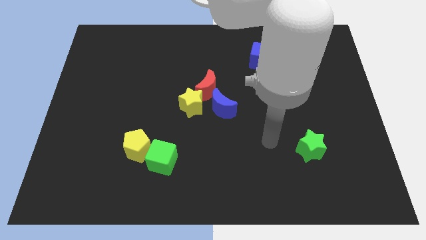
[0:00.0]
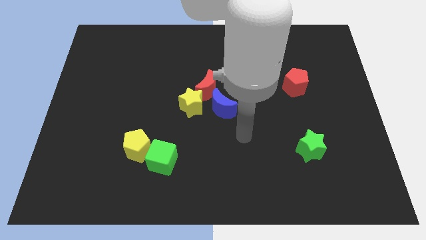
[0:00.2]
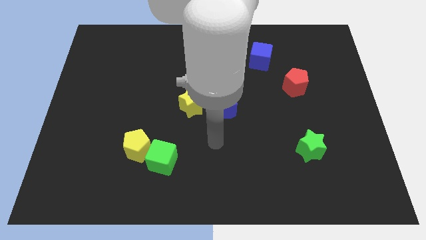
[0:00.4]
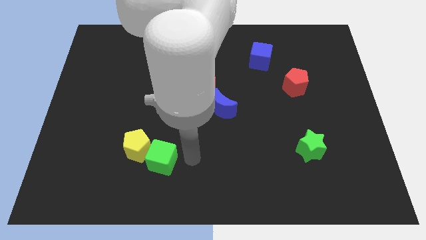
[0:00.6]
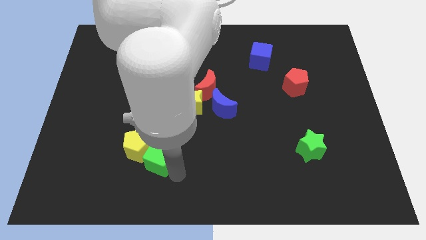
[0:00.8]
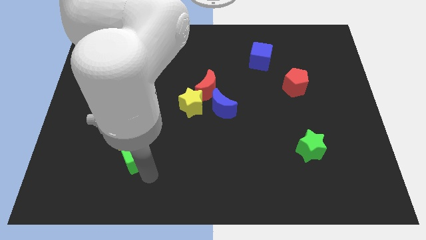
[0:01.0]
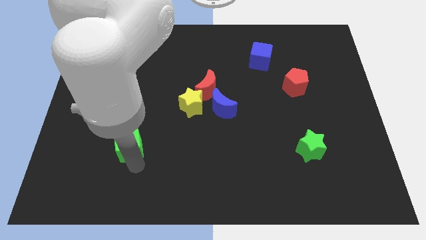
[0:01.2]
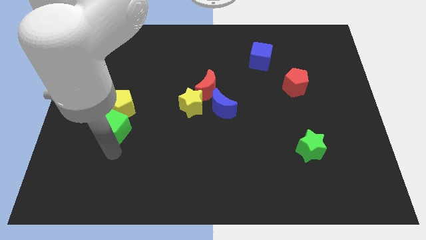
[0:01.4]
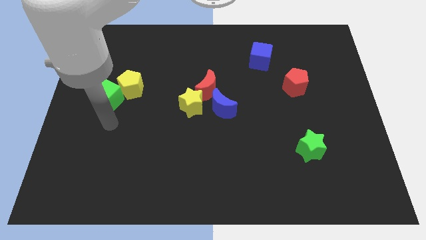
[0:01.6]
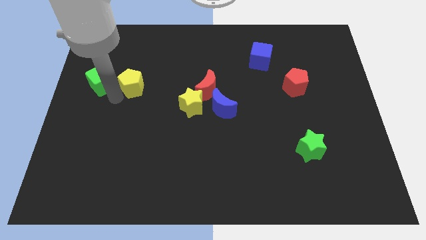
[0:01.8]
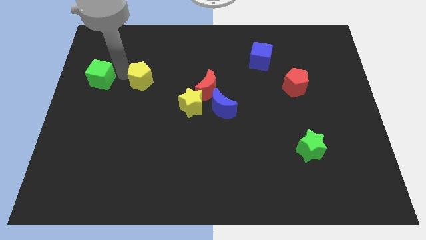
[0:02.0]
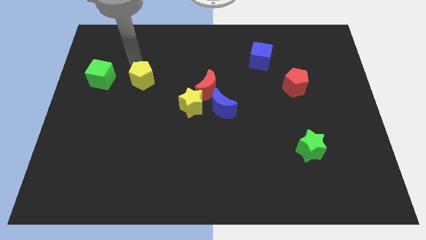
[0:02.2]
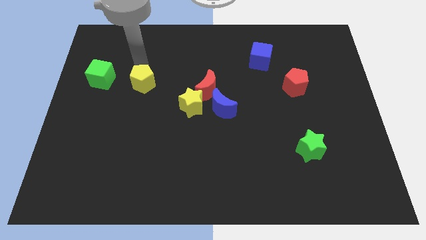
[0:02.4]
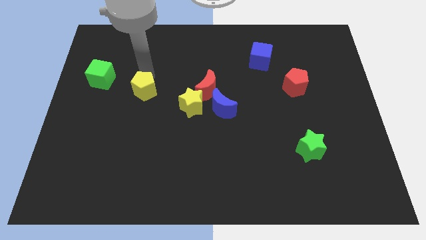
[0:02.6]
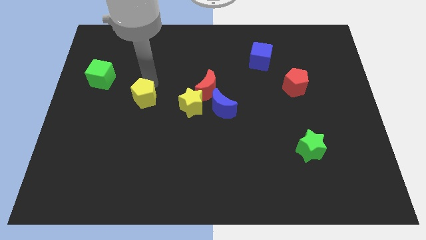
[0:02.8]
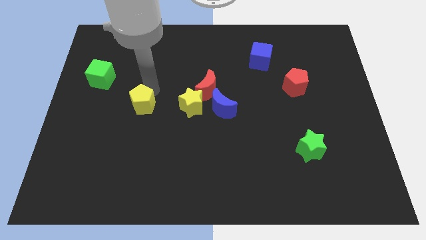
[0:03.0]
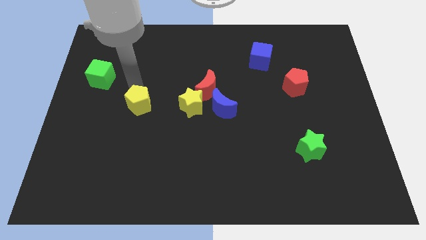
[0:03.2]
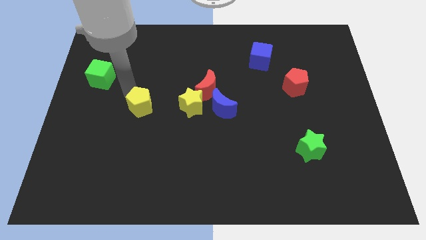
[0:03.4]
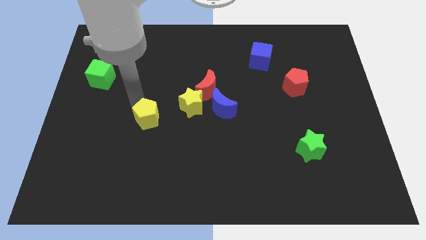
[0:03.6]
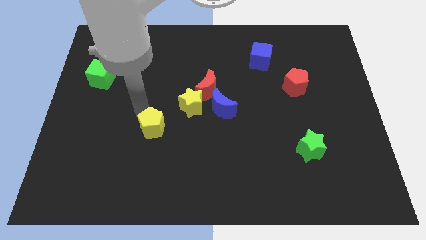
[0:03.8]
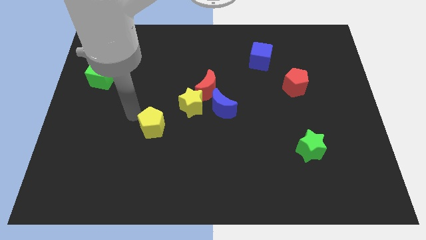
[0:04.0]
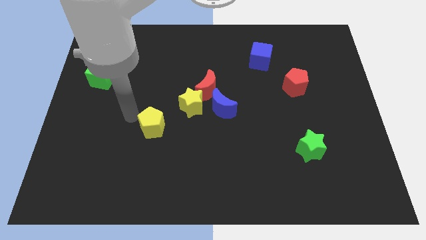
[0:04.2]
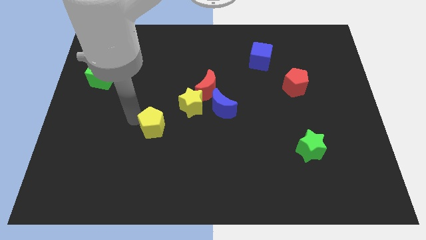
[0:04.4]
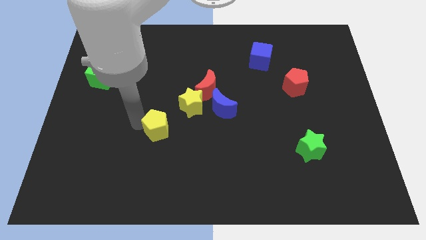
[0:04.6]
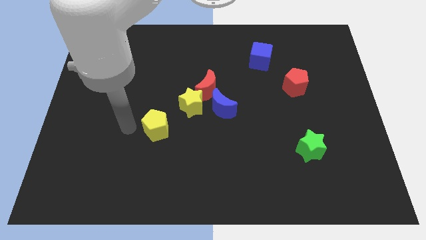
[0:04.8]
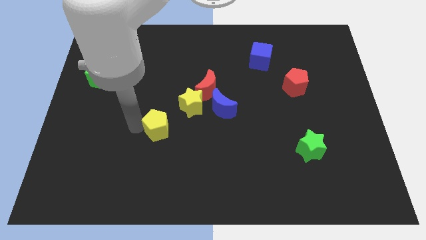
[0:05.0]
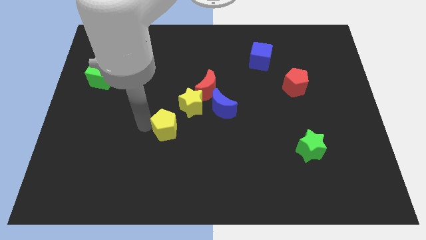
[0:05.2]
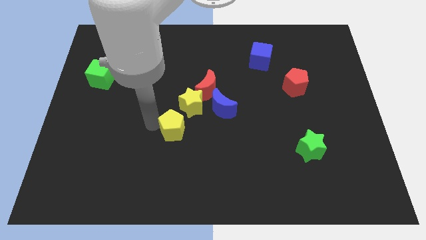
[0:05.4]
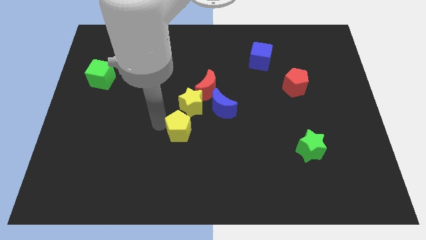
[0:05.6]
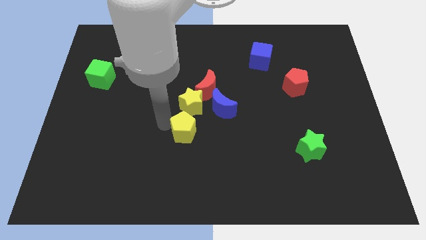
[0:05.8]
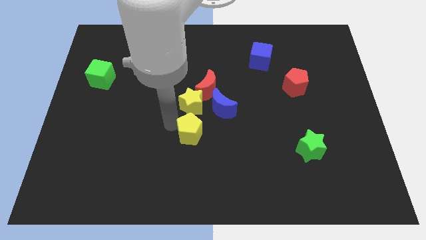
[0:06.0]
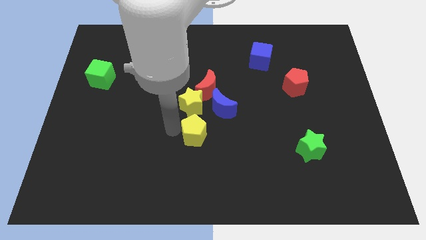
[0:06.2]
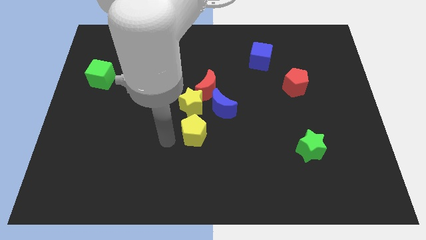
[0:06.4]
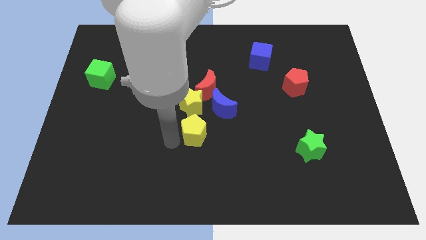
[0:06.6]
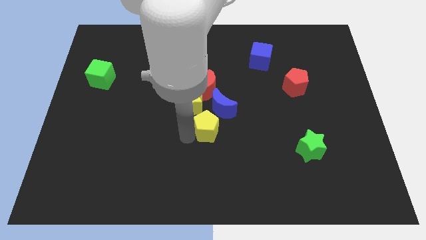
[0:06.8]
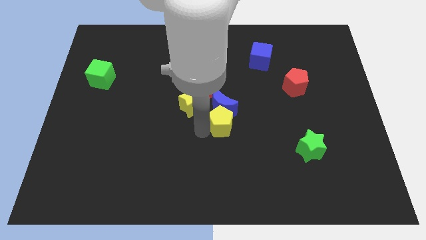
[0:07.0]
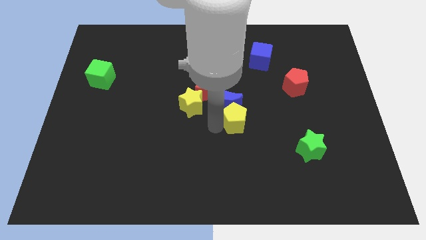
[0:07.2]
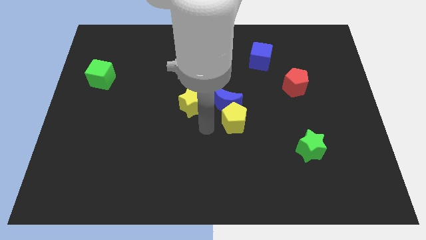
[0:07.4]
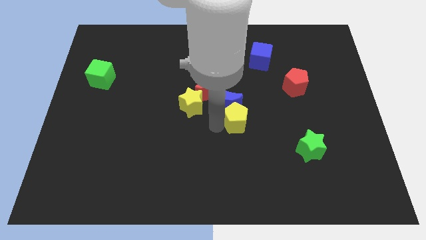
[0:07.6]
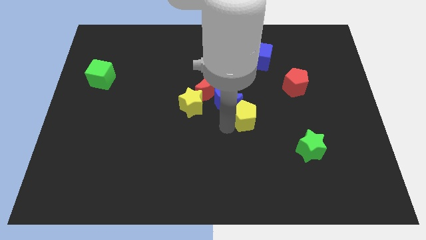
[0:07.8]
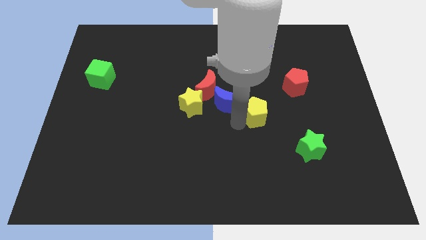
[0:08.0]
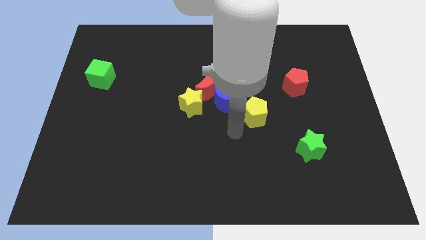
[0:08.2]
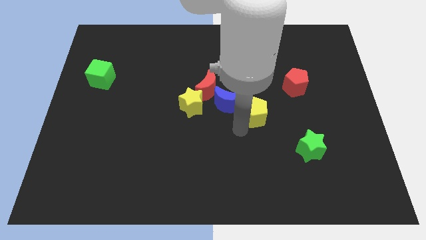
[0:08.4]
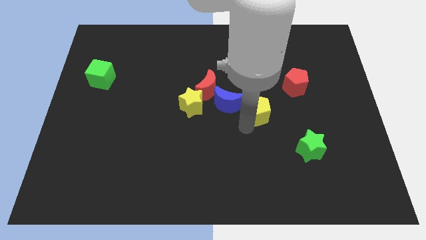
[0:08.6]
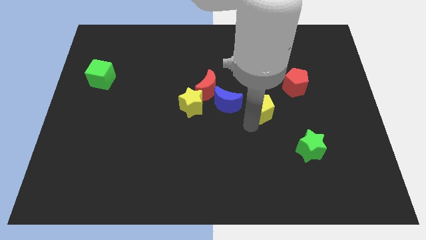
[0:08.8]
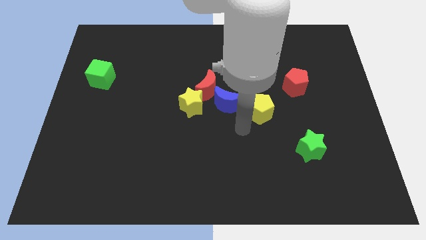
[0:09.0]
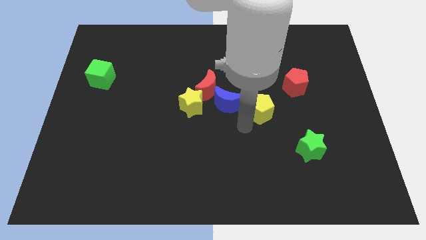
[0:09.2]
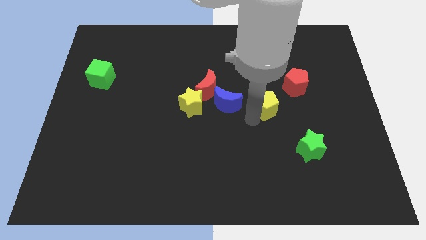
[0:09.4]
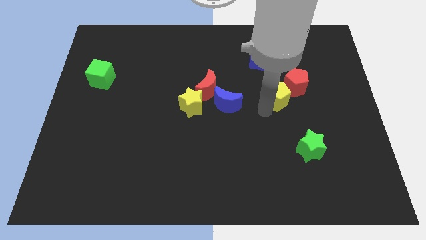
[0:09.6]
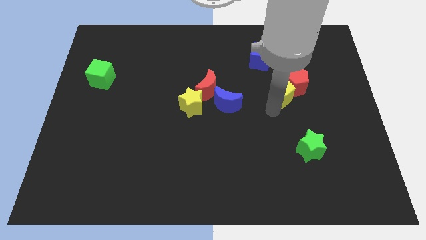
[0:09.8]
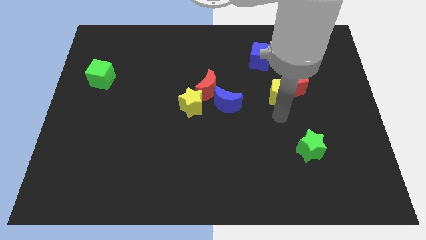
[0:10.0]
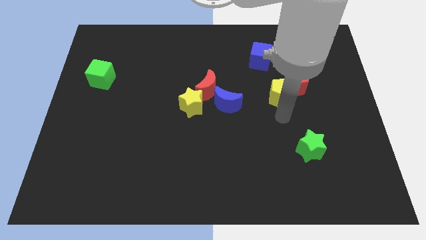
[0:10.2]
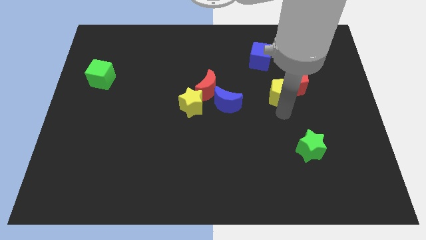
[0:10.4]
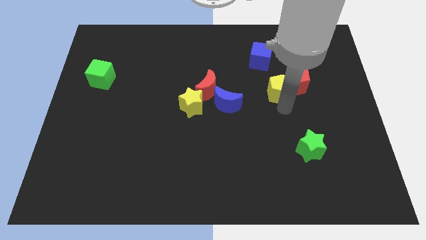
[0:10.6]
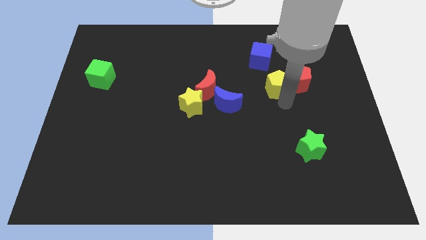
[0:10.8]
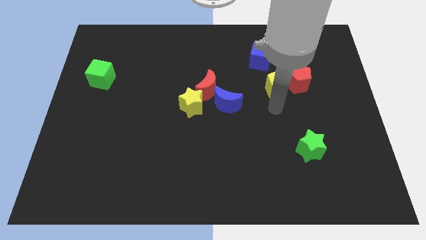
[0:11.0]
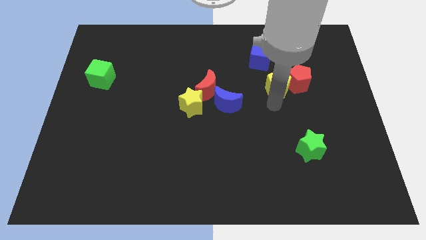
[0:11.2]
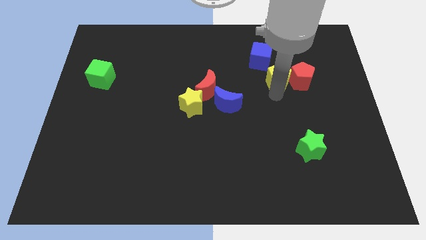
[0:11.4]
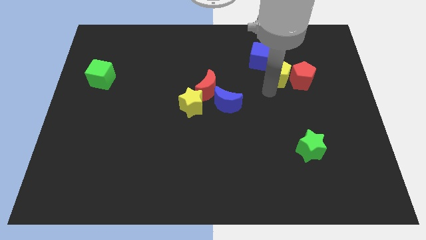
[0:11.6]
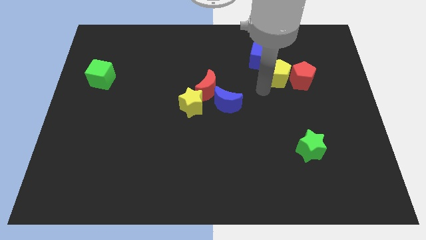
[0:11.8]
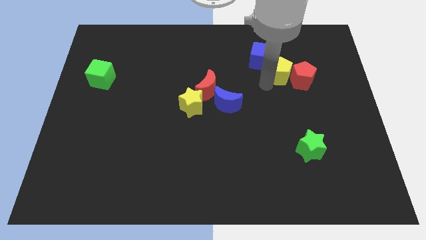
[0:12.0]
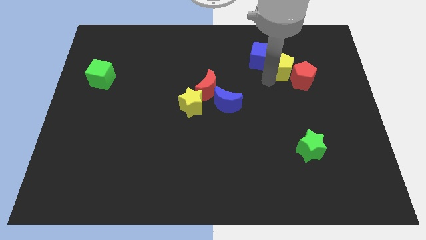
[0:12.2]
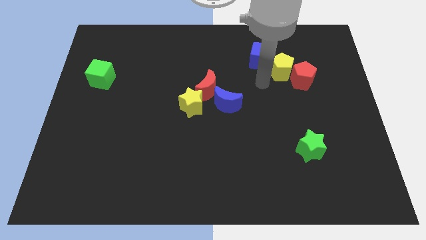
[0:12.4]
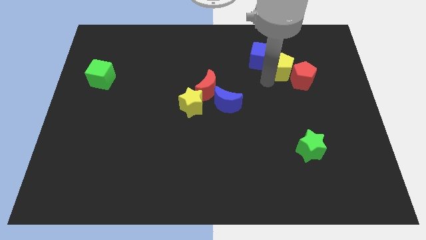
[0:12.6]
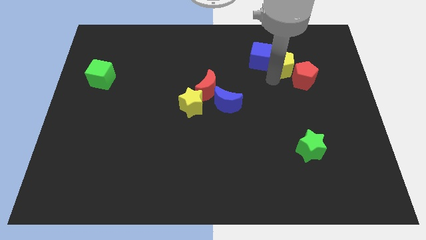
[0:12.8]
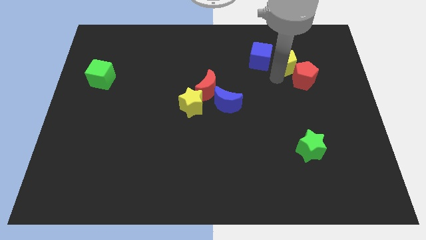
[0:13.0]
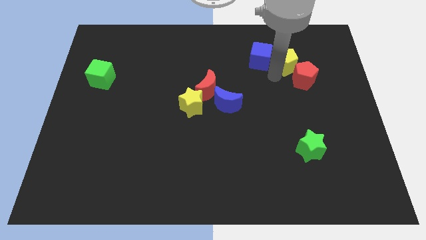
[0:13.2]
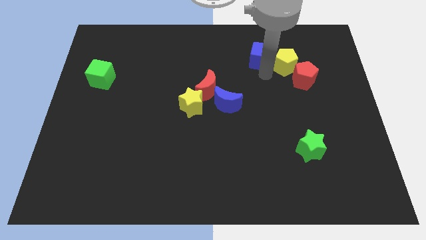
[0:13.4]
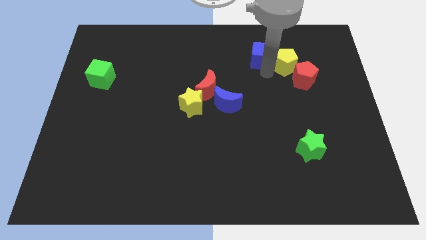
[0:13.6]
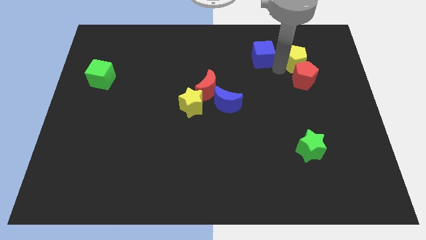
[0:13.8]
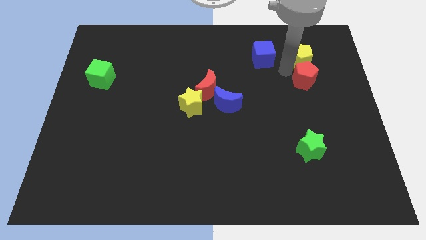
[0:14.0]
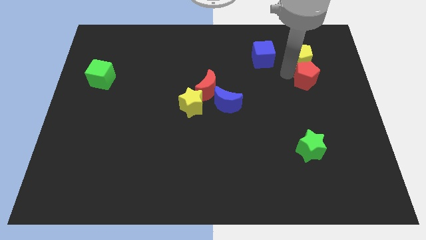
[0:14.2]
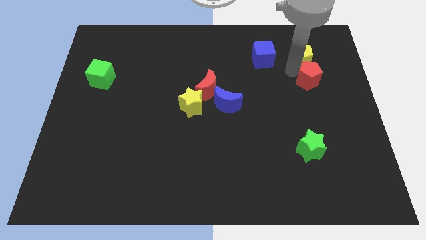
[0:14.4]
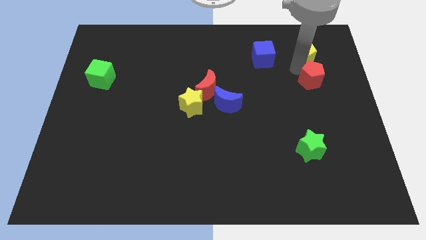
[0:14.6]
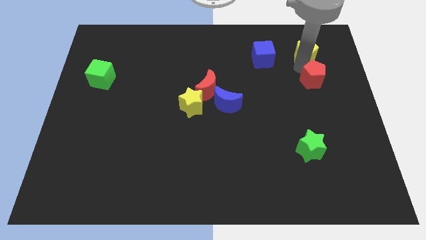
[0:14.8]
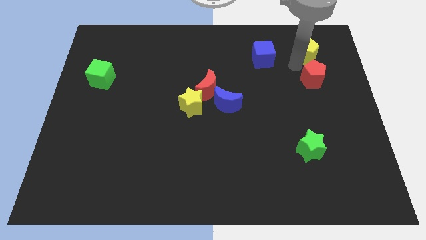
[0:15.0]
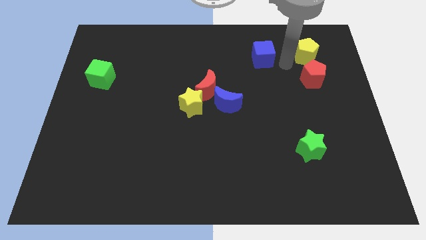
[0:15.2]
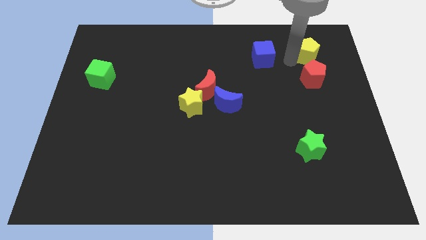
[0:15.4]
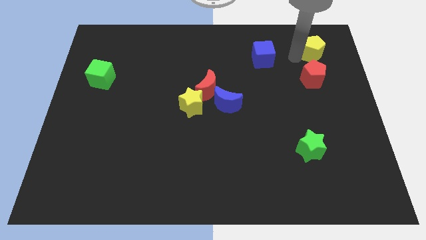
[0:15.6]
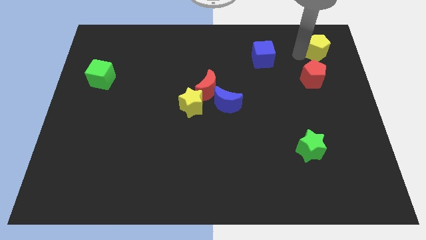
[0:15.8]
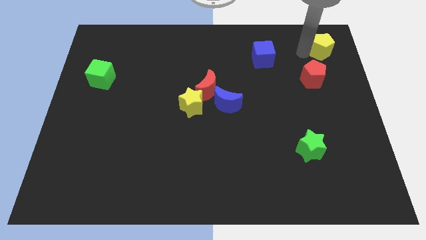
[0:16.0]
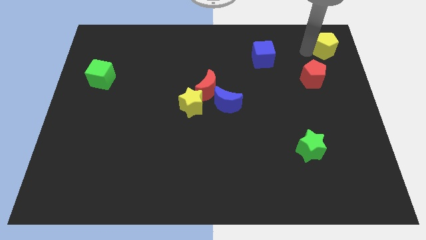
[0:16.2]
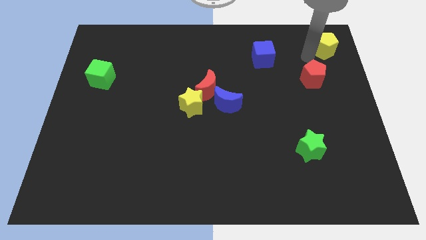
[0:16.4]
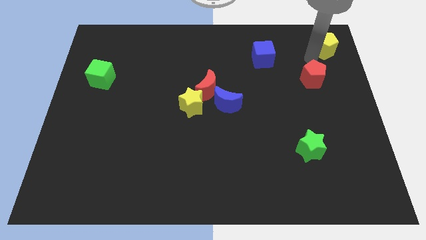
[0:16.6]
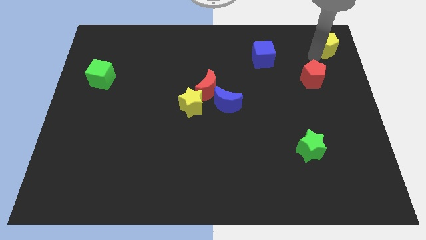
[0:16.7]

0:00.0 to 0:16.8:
put the yellow pentagon to the top right of the board
